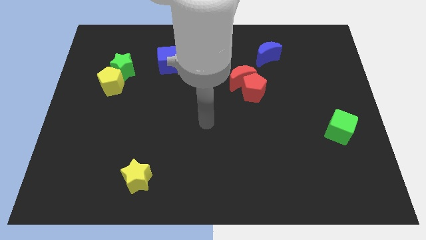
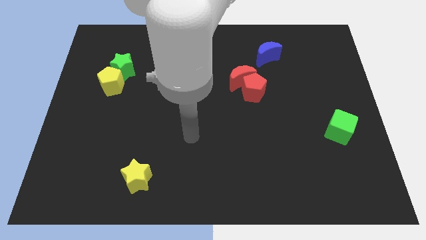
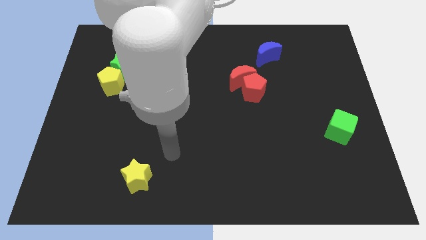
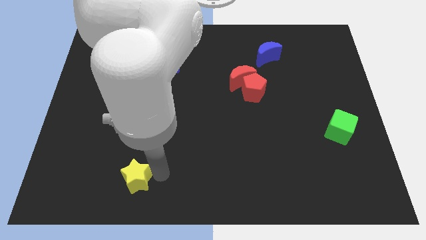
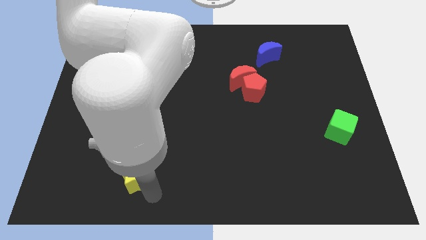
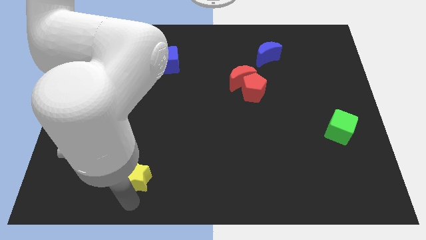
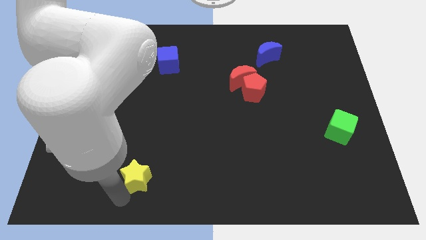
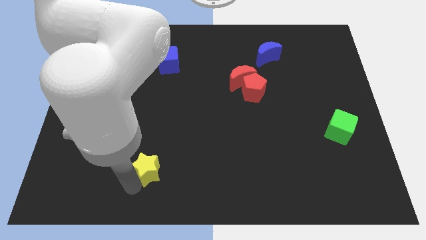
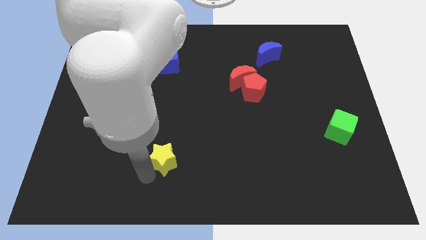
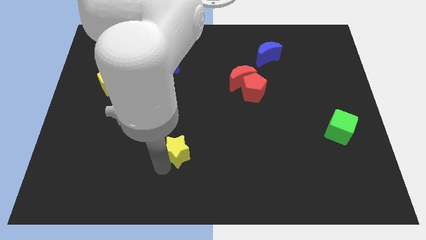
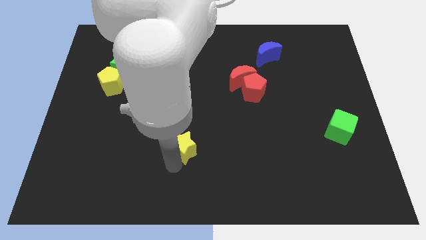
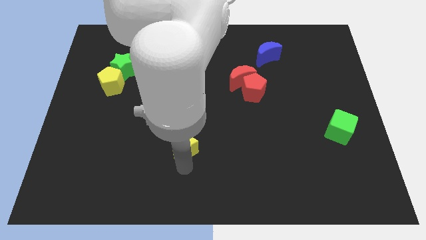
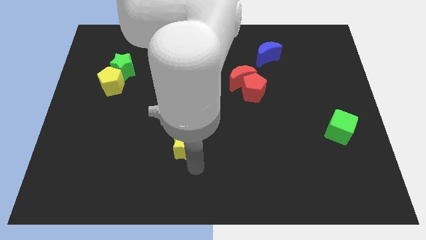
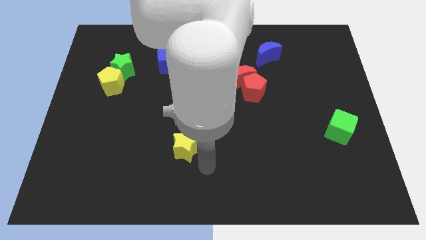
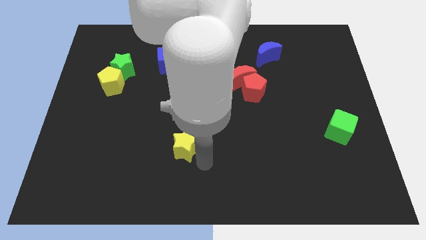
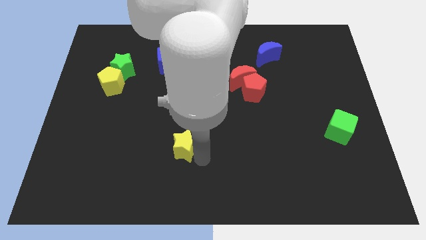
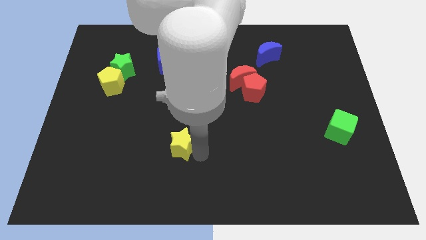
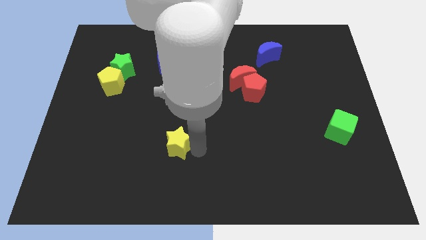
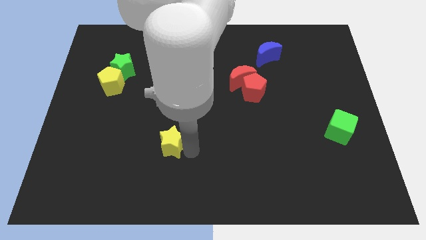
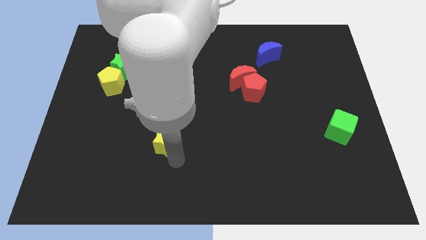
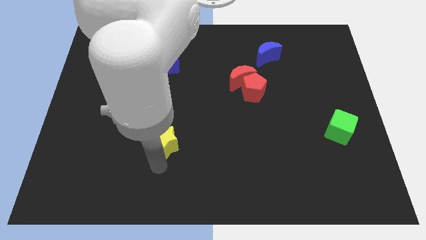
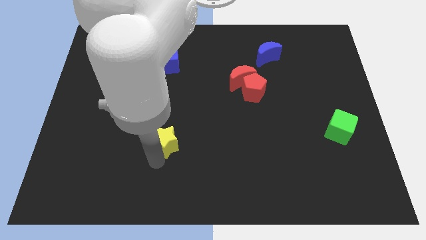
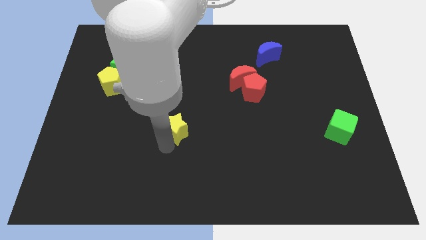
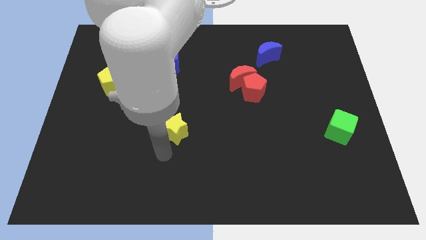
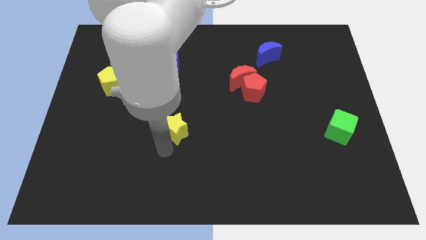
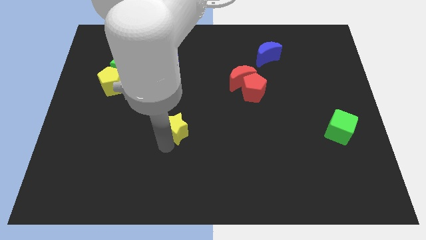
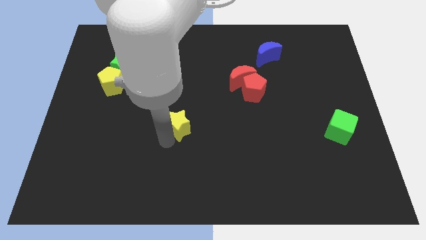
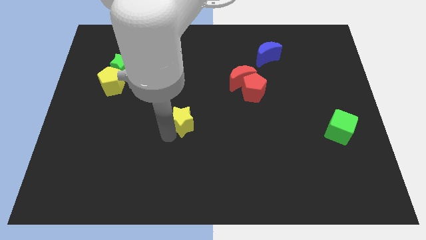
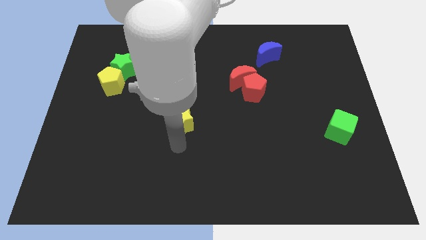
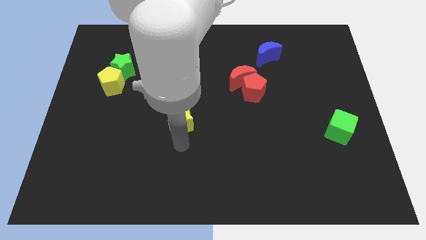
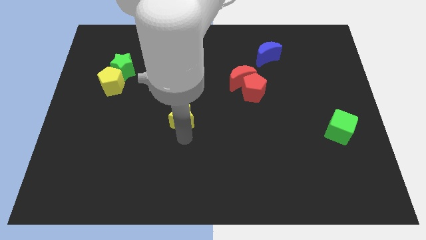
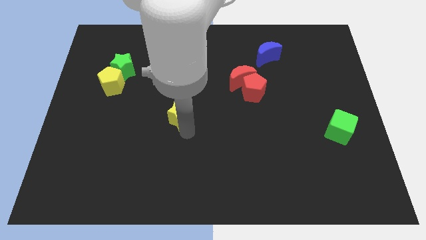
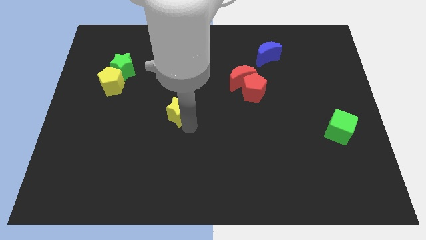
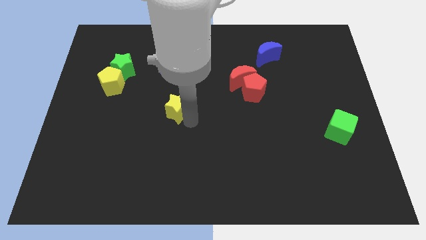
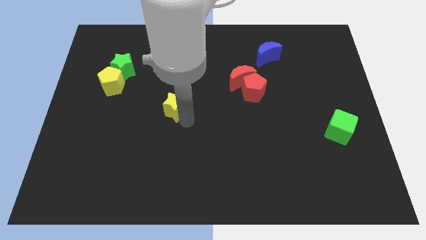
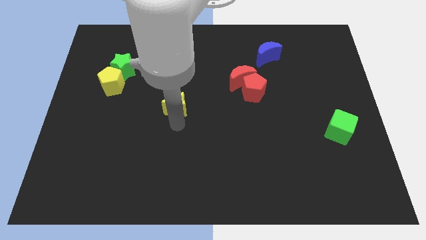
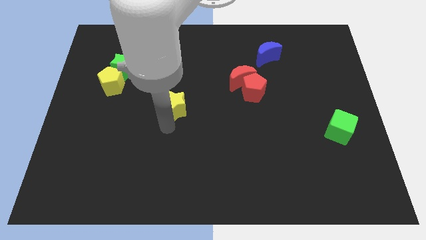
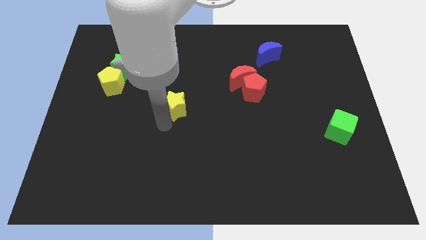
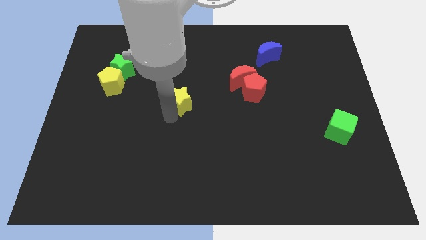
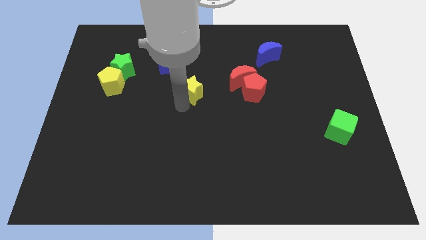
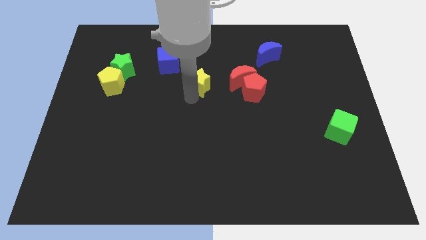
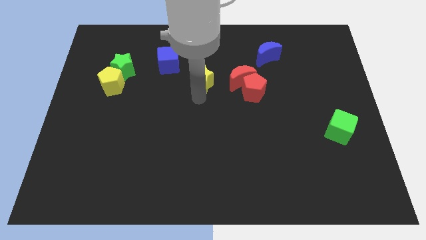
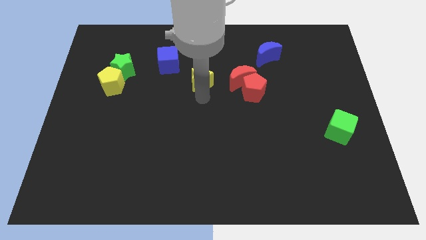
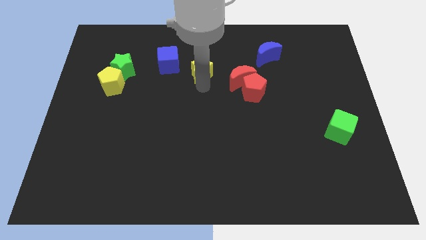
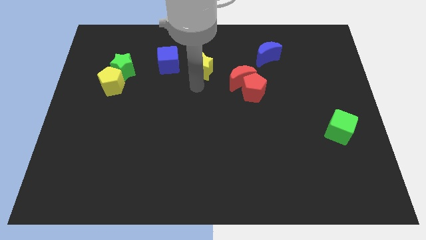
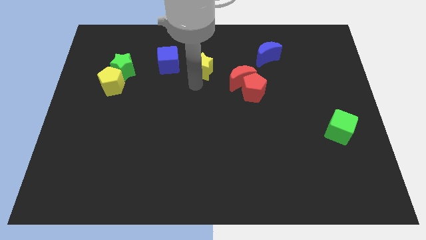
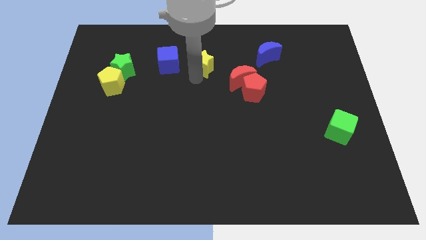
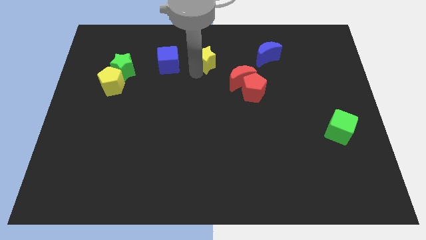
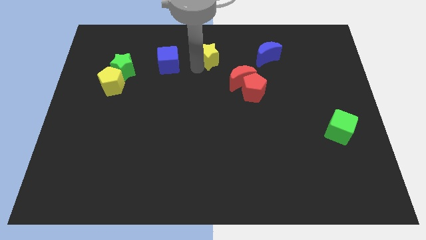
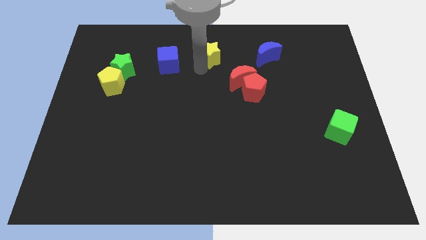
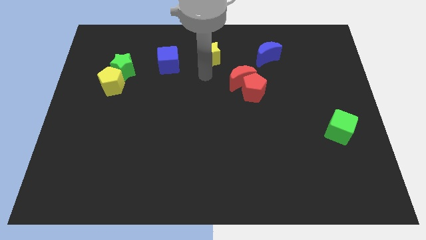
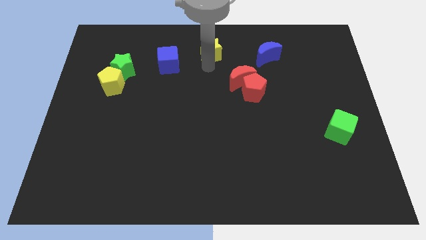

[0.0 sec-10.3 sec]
push the yellow star to the towards your base
